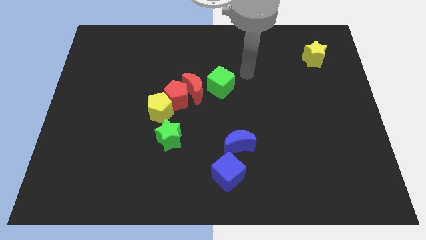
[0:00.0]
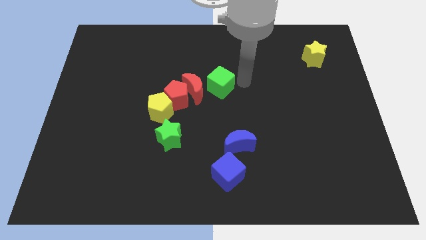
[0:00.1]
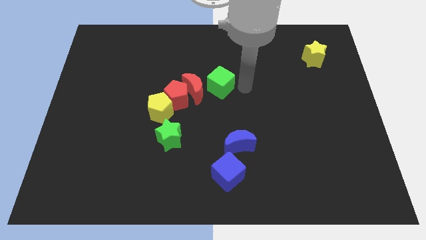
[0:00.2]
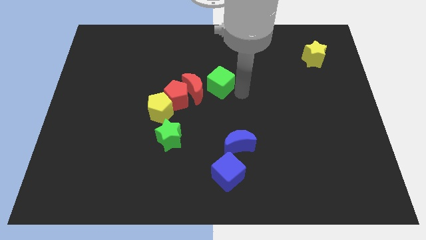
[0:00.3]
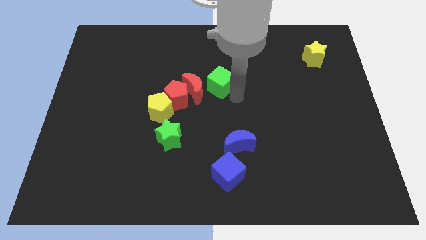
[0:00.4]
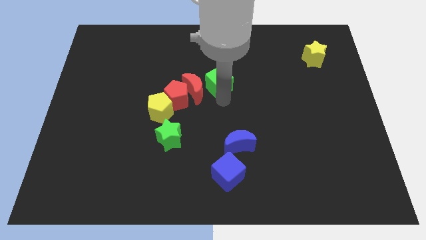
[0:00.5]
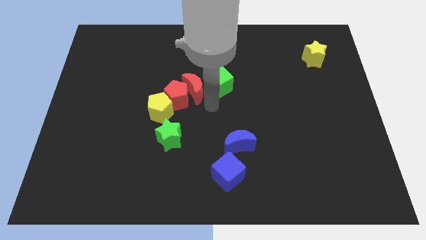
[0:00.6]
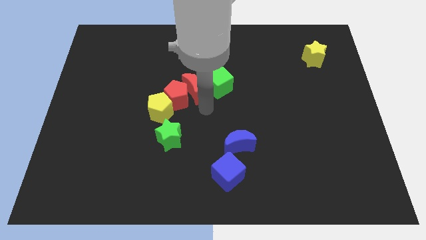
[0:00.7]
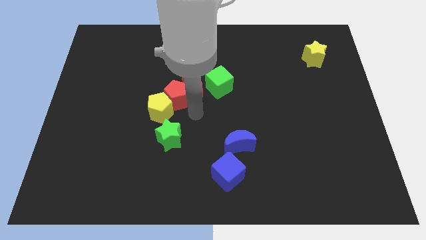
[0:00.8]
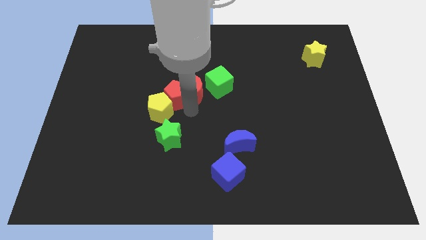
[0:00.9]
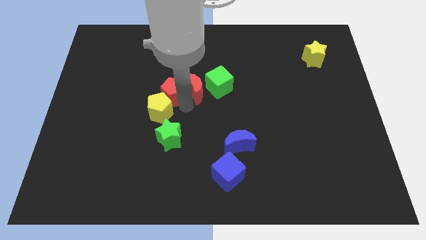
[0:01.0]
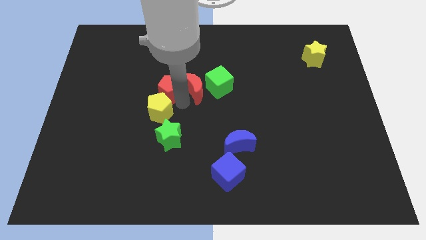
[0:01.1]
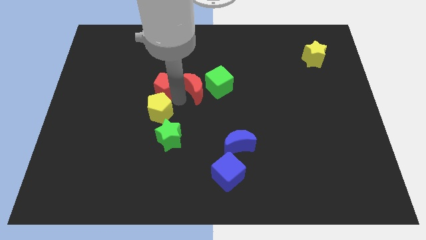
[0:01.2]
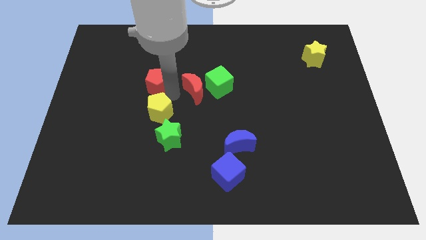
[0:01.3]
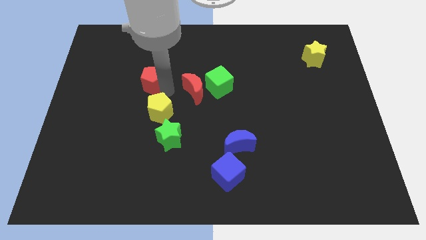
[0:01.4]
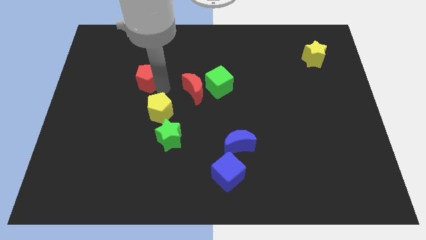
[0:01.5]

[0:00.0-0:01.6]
separate the red pentagon from the yellow pentagon and red moon

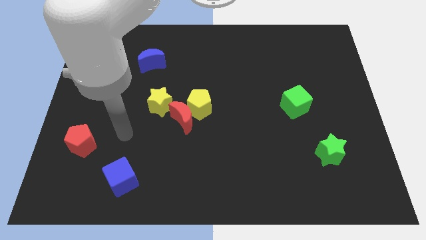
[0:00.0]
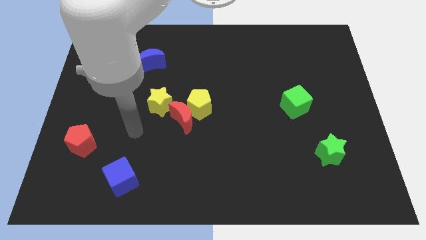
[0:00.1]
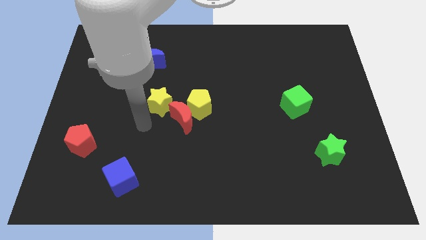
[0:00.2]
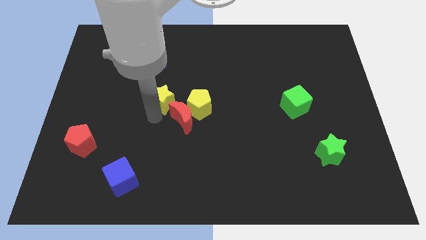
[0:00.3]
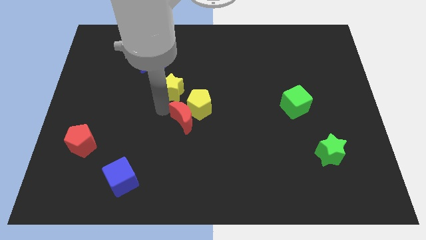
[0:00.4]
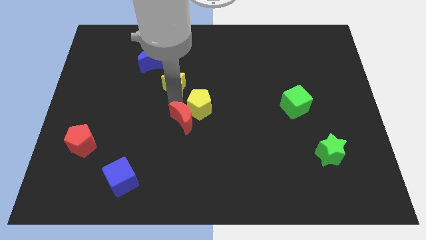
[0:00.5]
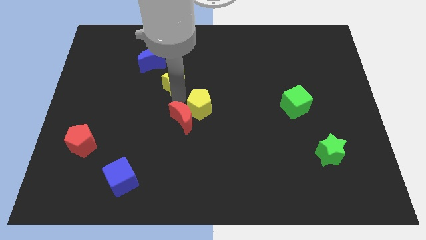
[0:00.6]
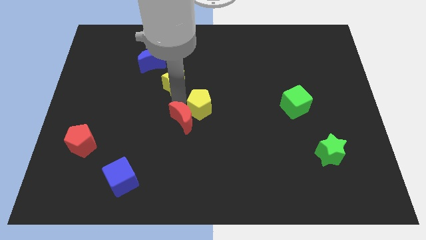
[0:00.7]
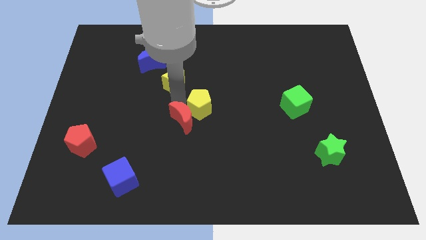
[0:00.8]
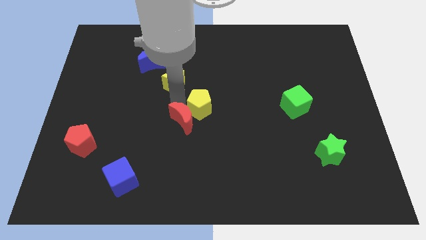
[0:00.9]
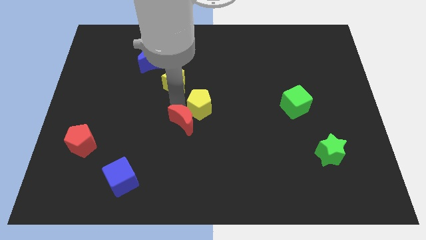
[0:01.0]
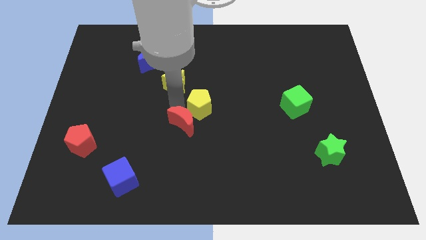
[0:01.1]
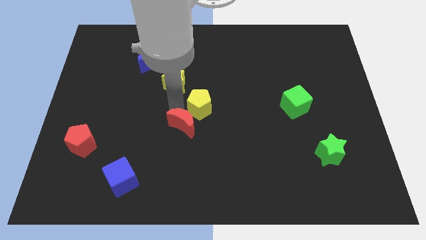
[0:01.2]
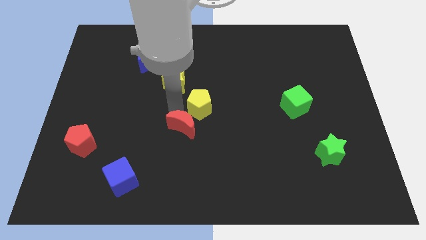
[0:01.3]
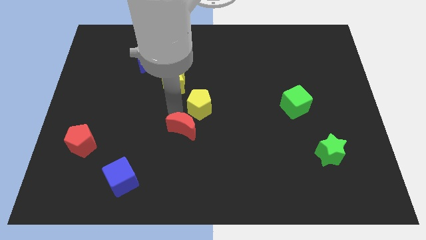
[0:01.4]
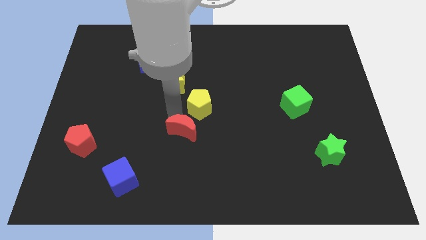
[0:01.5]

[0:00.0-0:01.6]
separate the red moon from the yellow pentagon and yellow star

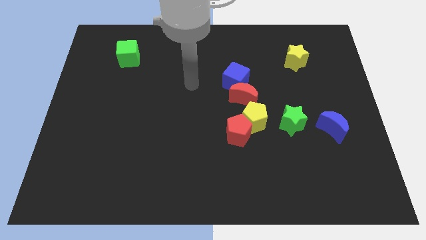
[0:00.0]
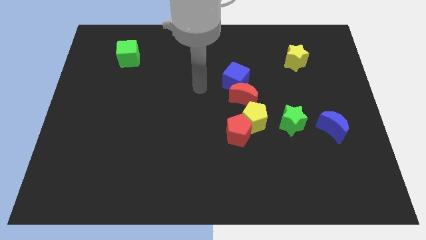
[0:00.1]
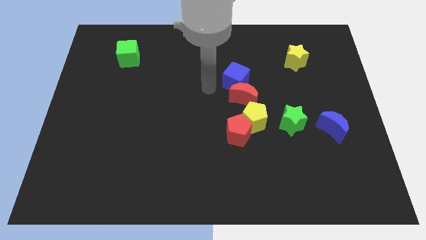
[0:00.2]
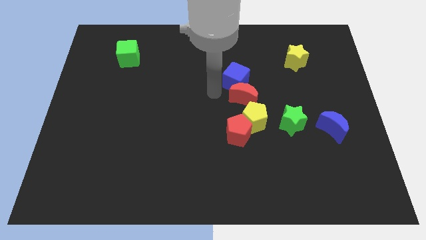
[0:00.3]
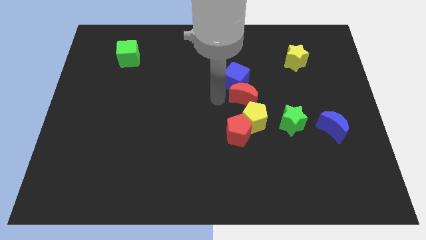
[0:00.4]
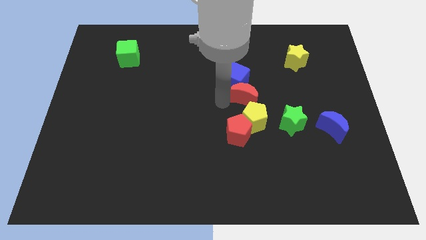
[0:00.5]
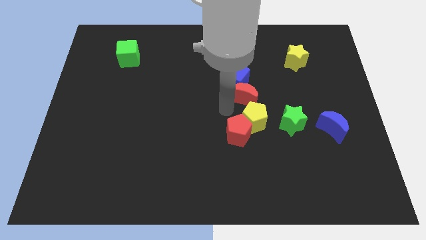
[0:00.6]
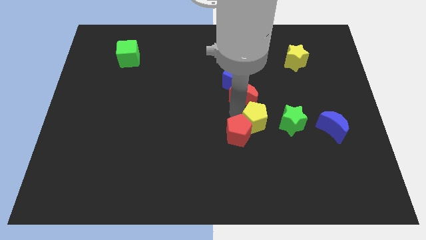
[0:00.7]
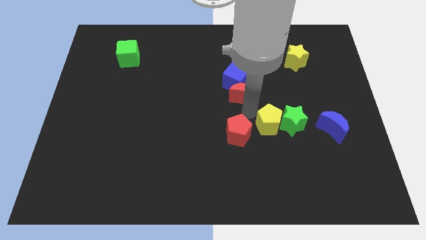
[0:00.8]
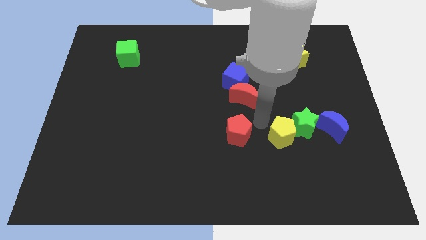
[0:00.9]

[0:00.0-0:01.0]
separate the red pentagon from the yellow pentagon

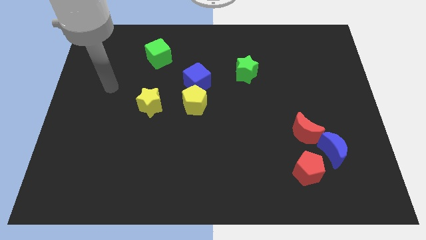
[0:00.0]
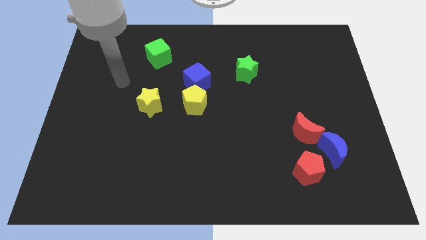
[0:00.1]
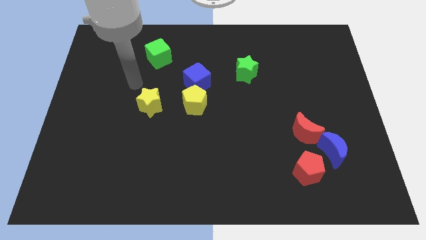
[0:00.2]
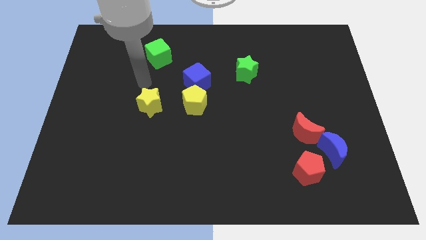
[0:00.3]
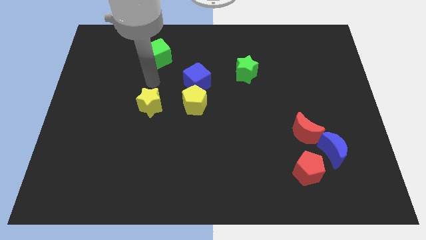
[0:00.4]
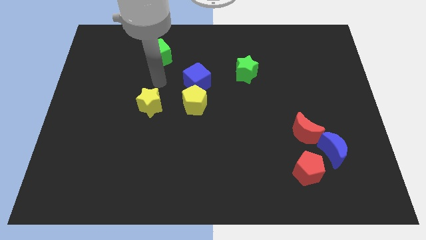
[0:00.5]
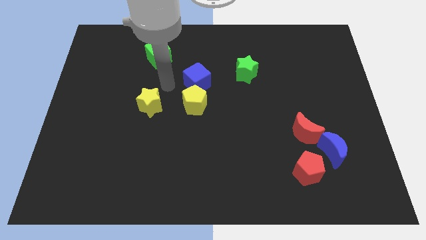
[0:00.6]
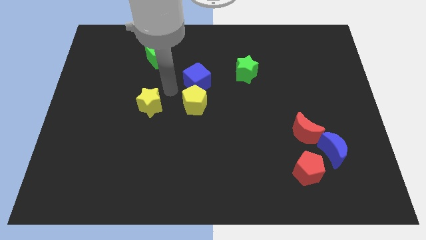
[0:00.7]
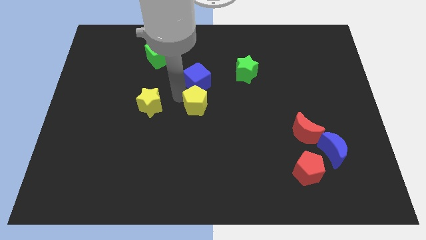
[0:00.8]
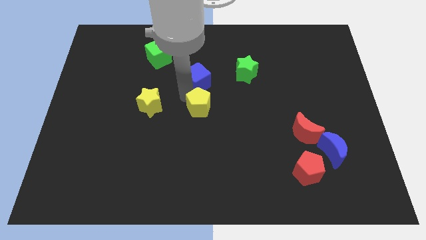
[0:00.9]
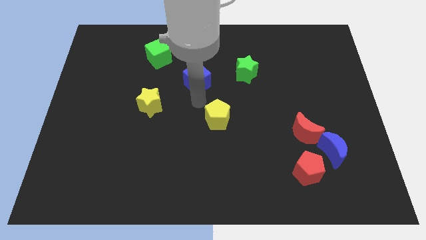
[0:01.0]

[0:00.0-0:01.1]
separate the blue cube from the yellow pentagon

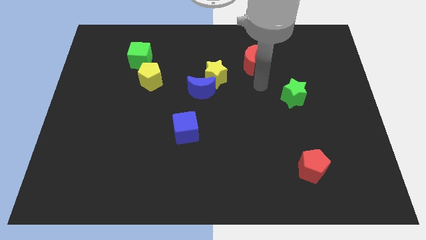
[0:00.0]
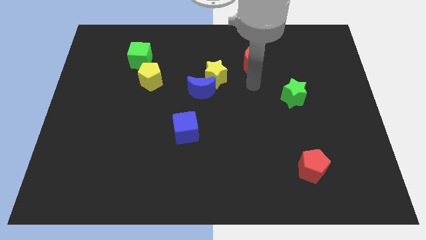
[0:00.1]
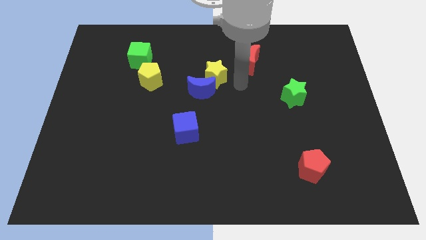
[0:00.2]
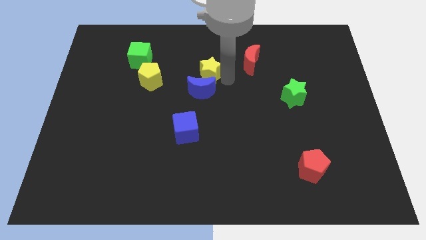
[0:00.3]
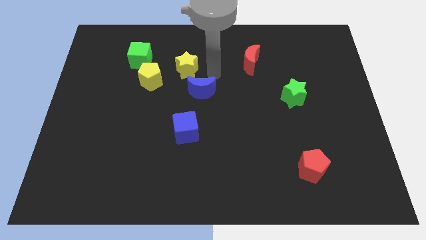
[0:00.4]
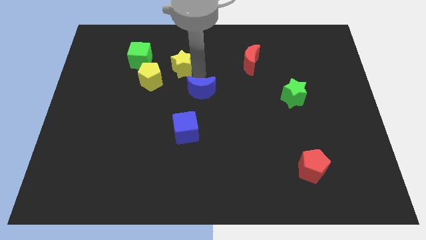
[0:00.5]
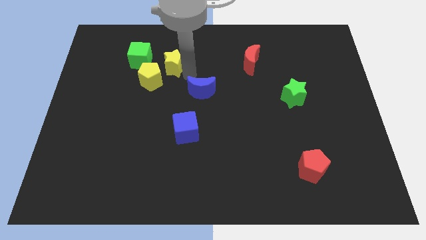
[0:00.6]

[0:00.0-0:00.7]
separate the blue moon from the yellow star

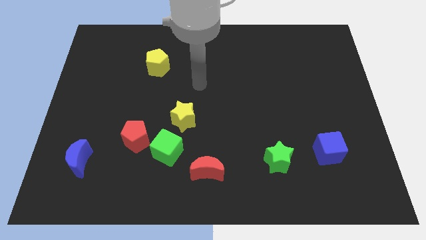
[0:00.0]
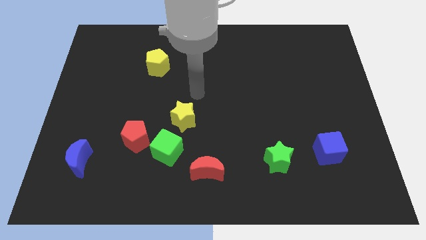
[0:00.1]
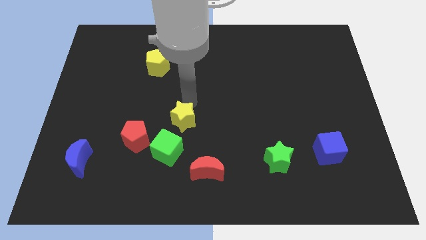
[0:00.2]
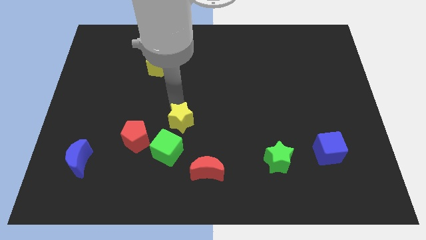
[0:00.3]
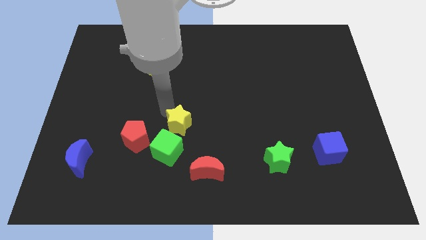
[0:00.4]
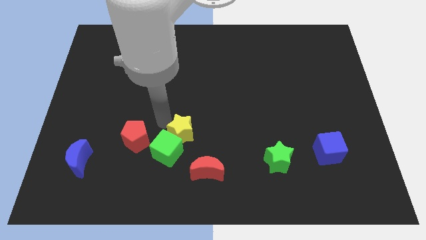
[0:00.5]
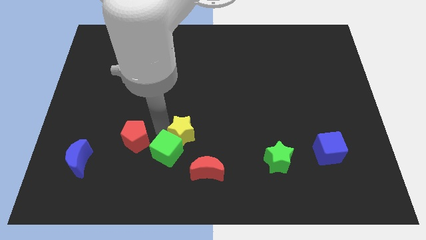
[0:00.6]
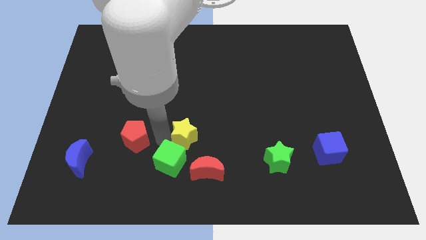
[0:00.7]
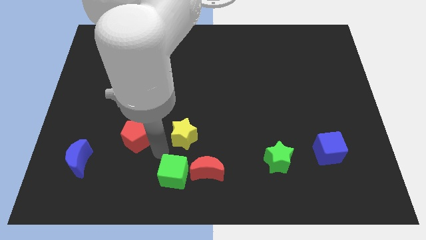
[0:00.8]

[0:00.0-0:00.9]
move the red pentagon away from the green cube

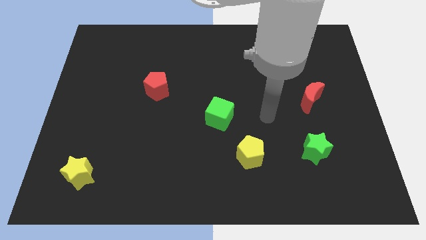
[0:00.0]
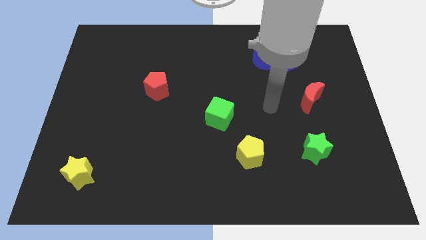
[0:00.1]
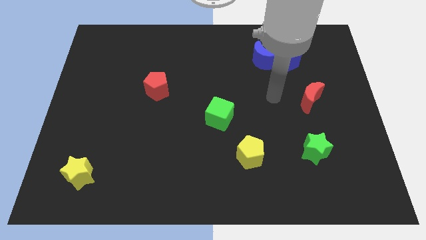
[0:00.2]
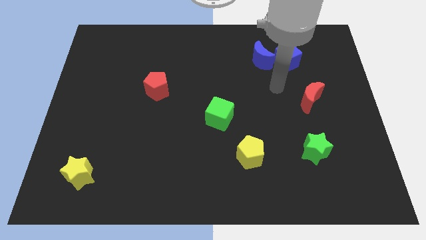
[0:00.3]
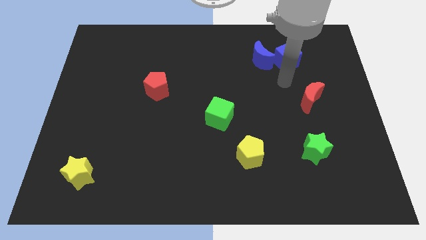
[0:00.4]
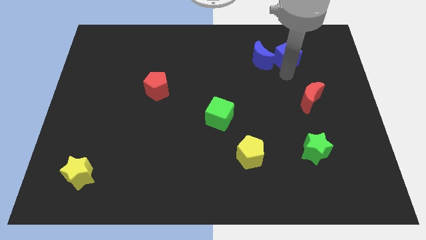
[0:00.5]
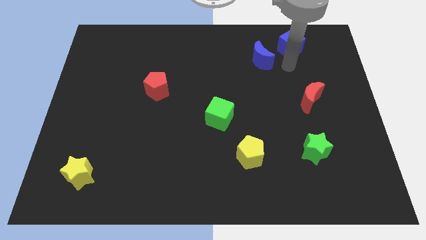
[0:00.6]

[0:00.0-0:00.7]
pull the blue moon apart from the blue cube

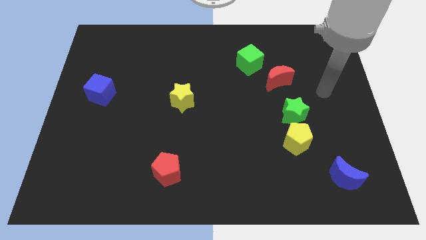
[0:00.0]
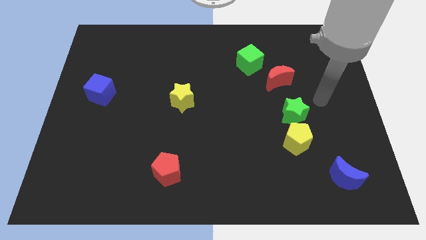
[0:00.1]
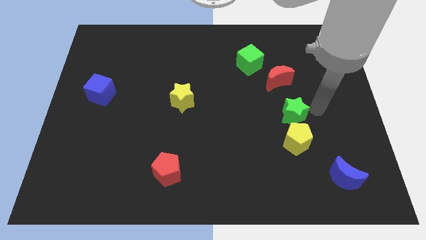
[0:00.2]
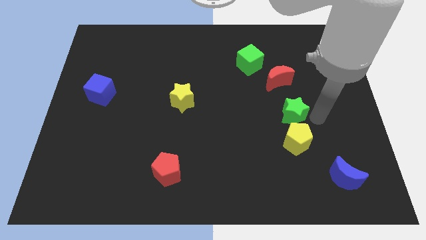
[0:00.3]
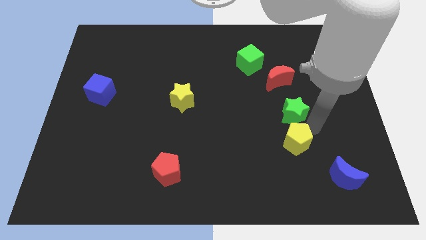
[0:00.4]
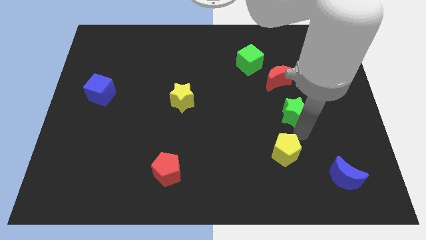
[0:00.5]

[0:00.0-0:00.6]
move the green star away from the yellow pentagon

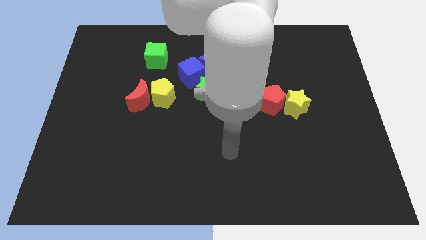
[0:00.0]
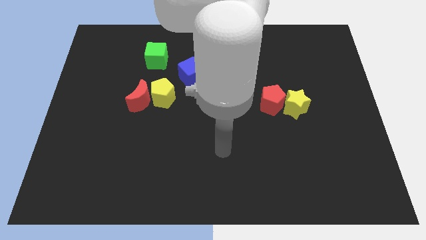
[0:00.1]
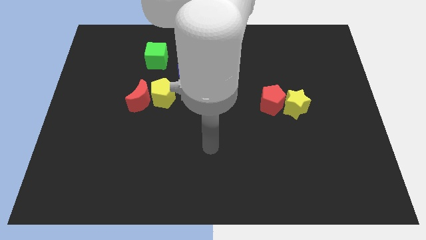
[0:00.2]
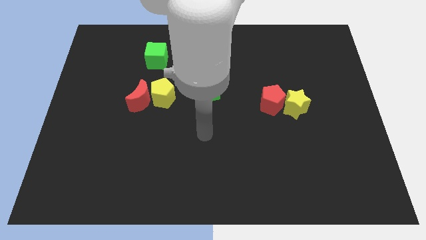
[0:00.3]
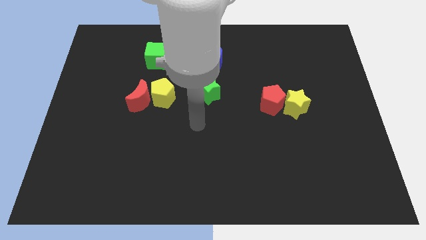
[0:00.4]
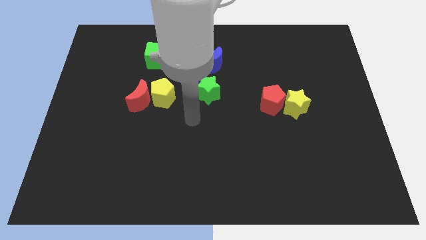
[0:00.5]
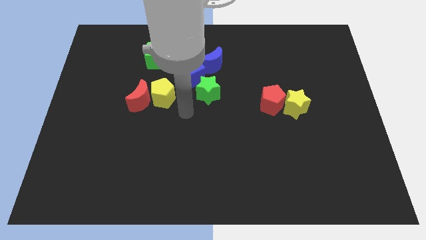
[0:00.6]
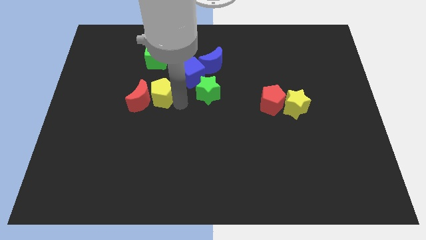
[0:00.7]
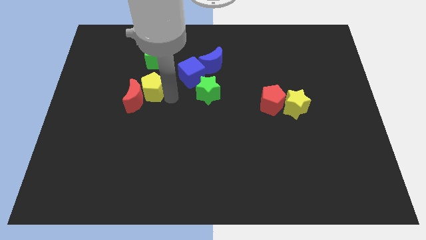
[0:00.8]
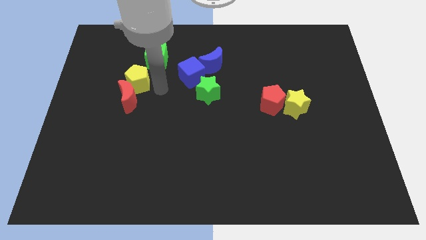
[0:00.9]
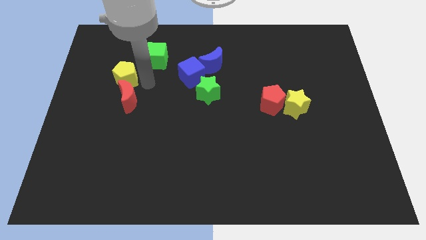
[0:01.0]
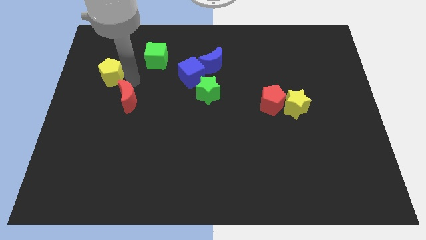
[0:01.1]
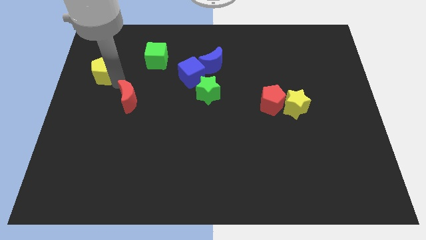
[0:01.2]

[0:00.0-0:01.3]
pull the red moon apart from the yellow pentagon
